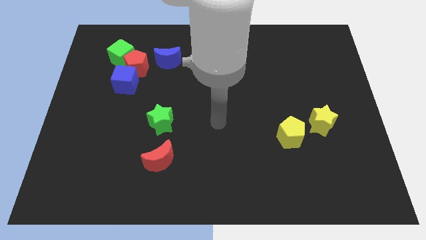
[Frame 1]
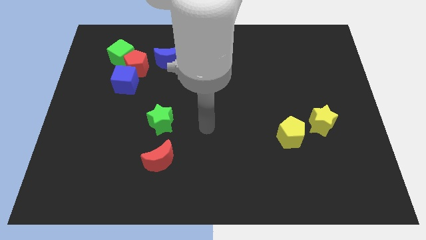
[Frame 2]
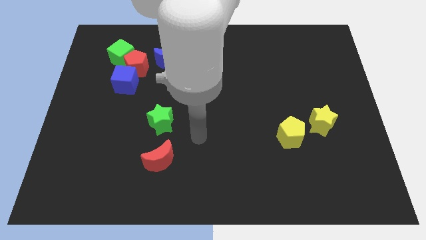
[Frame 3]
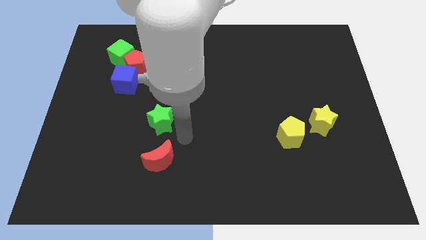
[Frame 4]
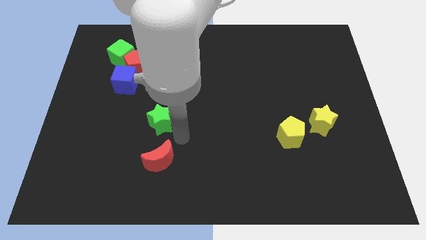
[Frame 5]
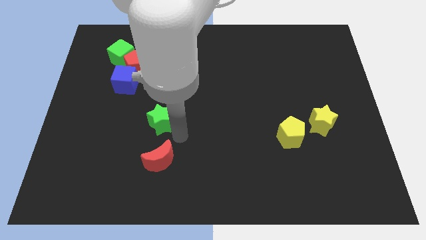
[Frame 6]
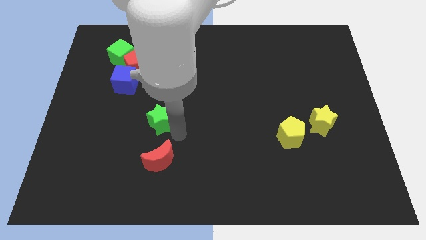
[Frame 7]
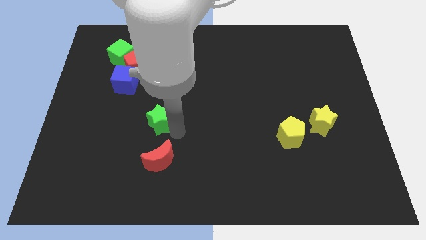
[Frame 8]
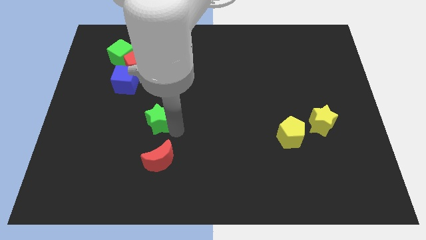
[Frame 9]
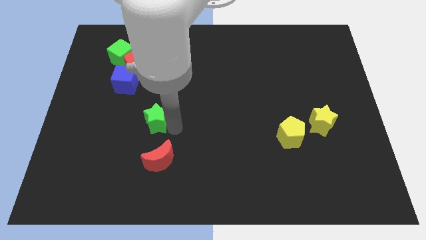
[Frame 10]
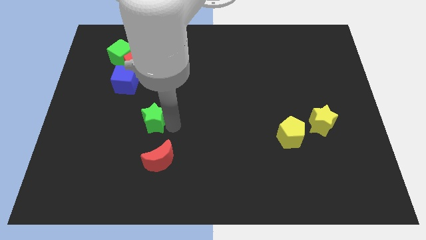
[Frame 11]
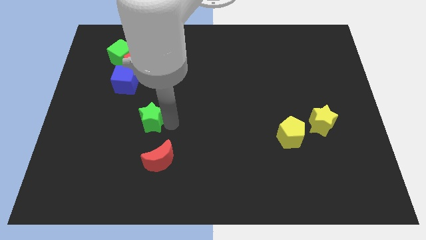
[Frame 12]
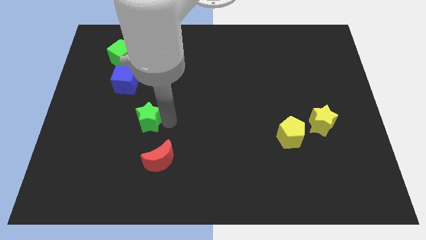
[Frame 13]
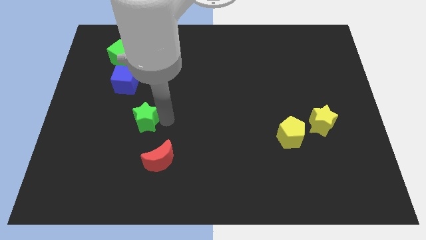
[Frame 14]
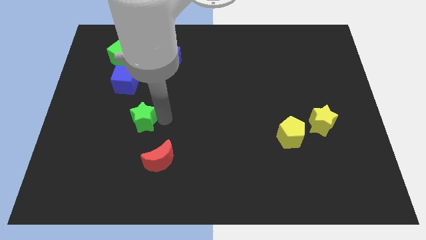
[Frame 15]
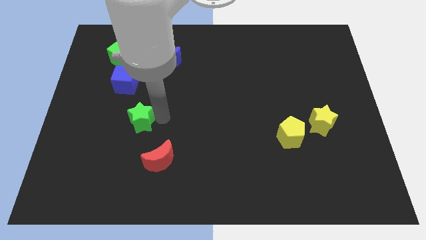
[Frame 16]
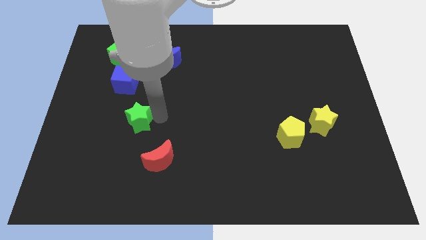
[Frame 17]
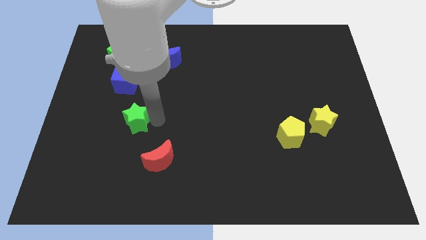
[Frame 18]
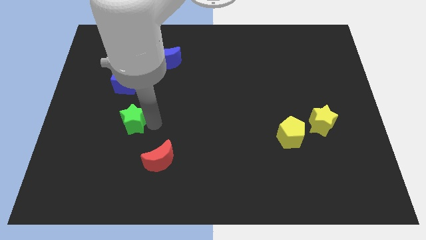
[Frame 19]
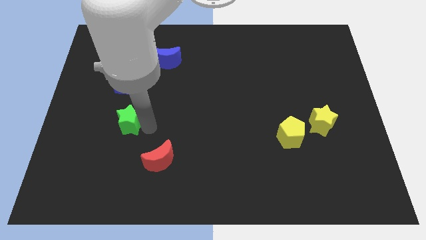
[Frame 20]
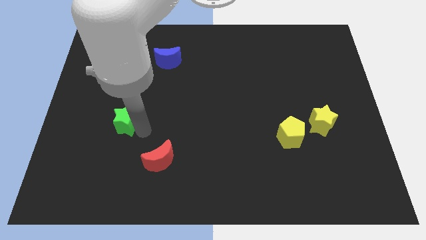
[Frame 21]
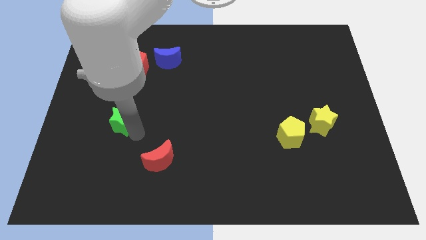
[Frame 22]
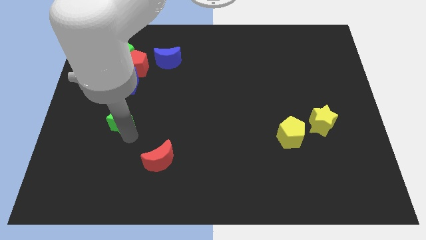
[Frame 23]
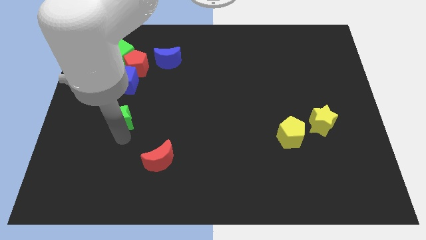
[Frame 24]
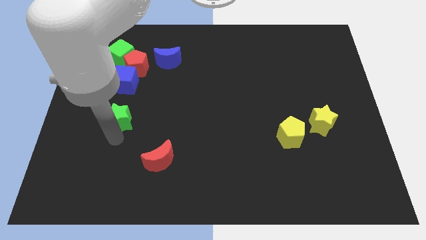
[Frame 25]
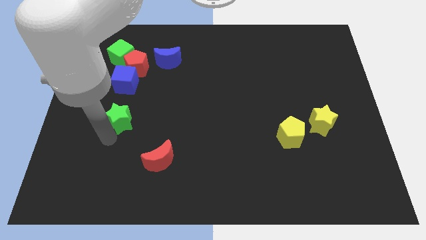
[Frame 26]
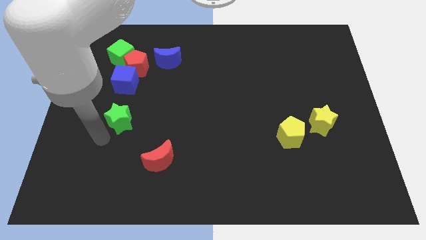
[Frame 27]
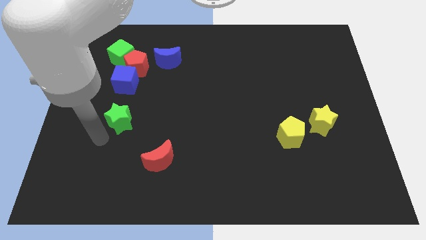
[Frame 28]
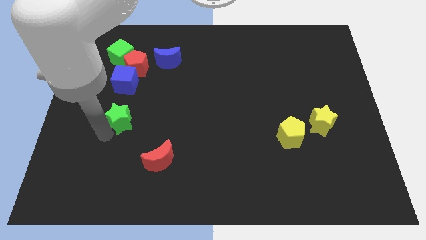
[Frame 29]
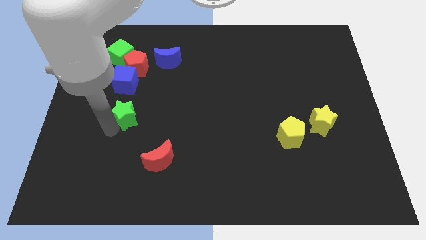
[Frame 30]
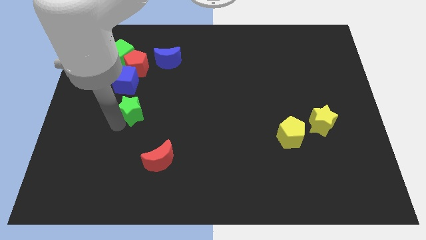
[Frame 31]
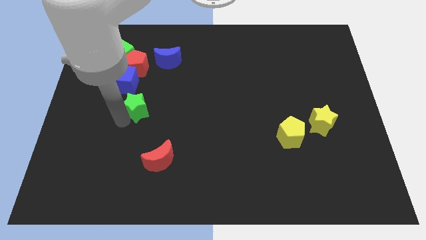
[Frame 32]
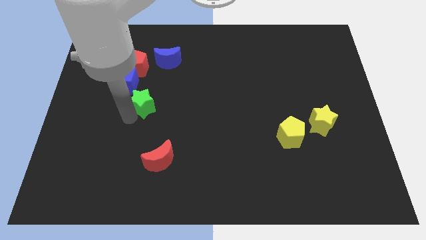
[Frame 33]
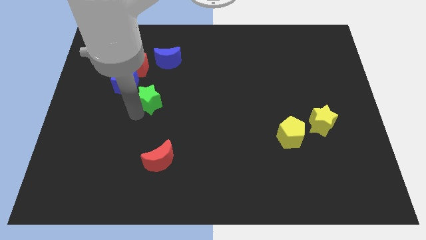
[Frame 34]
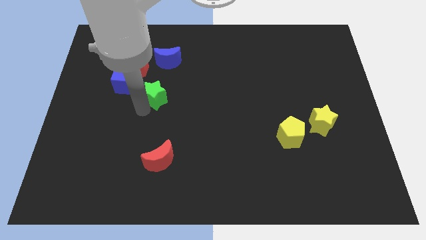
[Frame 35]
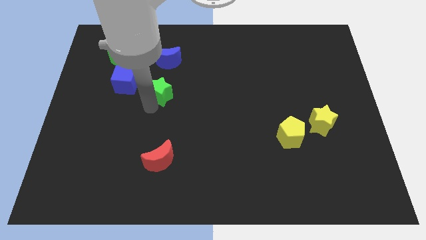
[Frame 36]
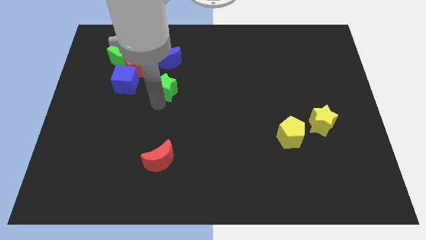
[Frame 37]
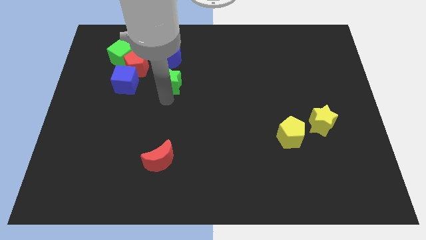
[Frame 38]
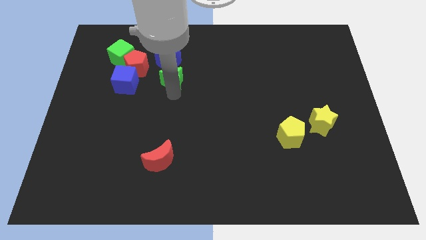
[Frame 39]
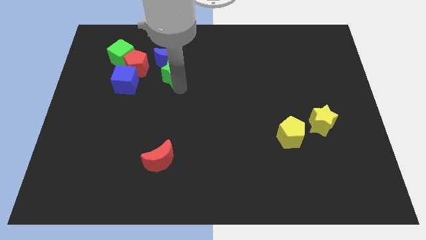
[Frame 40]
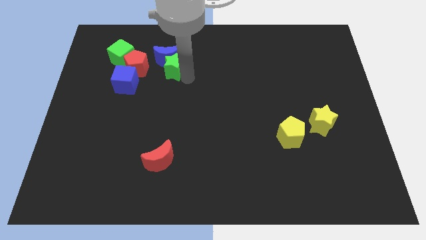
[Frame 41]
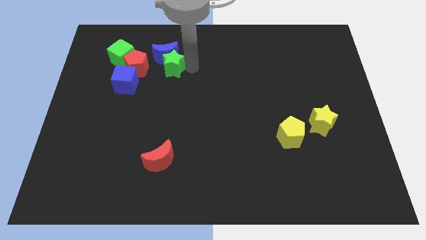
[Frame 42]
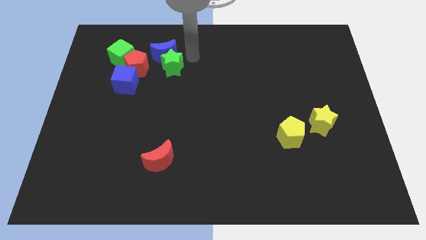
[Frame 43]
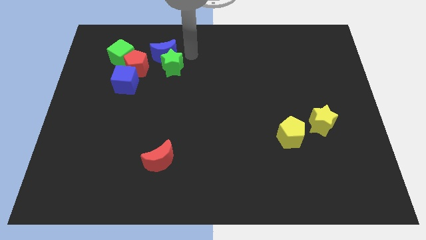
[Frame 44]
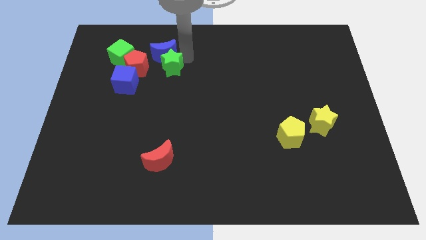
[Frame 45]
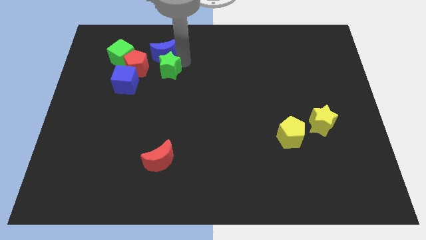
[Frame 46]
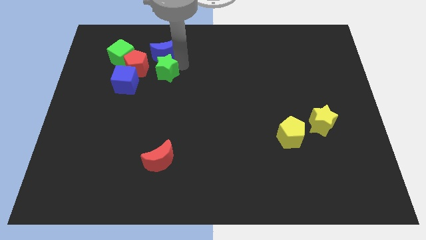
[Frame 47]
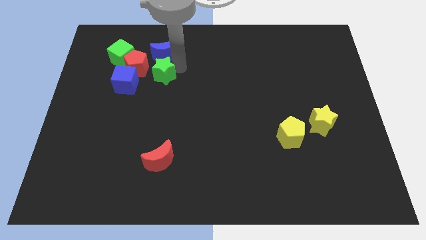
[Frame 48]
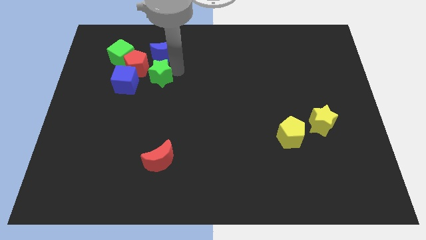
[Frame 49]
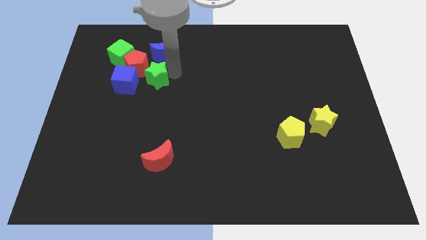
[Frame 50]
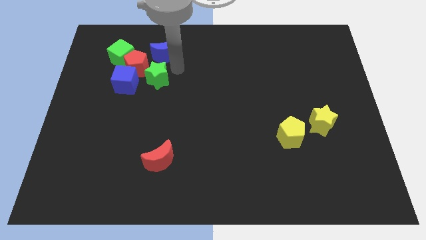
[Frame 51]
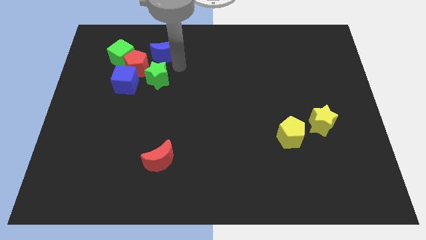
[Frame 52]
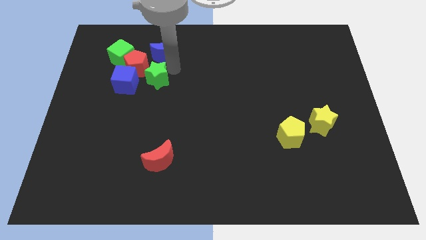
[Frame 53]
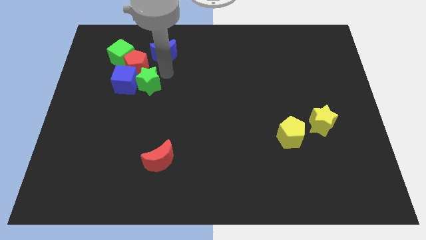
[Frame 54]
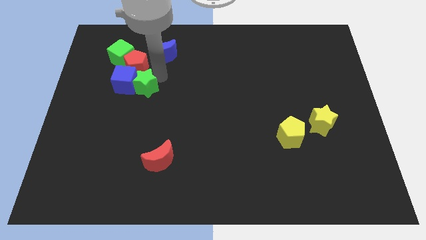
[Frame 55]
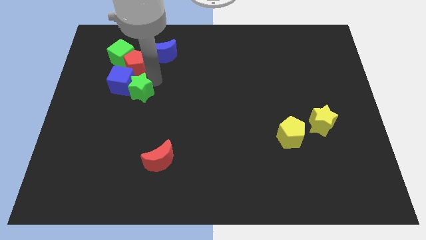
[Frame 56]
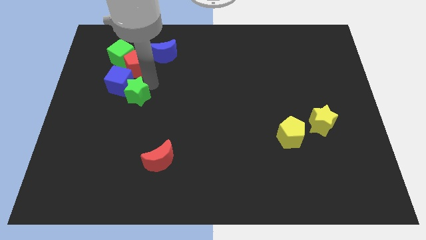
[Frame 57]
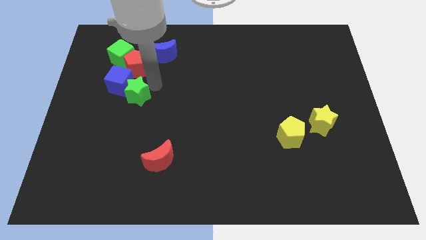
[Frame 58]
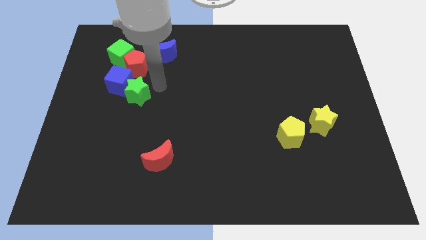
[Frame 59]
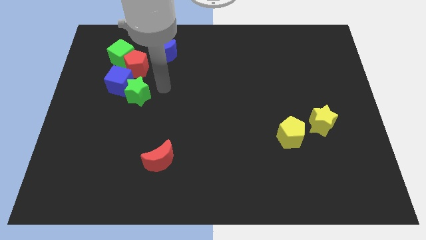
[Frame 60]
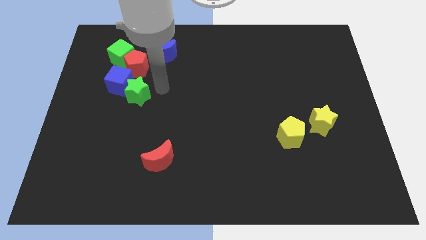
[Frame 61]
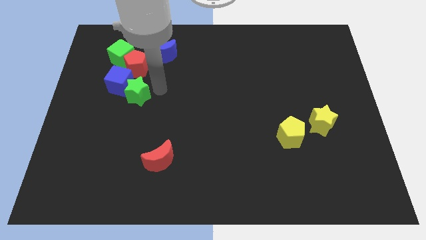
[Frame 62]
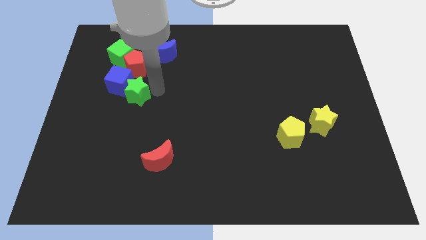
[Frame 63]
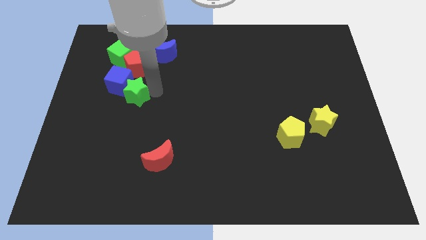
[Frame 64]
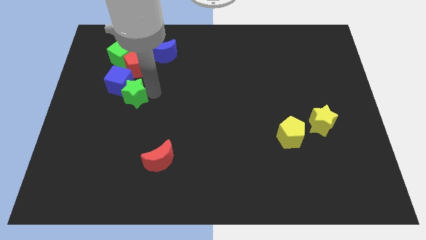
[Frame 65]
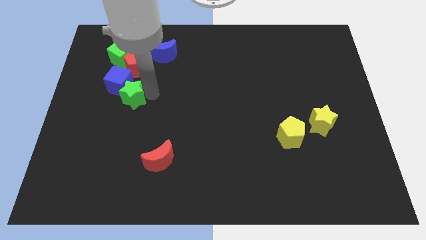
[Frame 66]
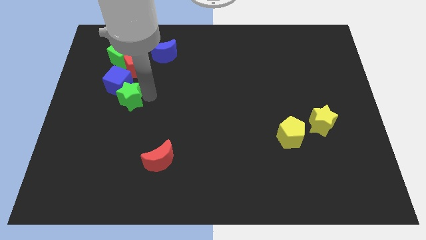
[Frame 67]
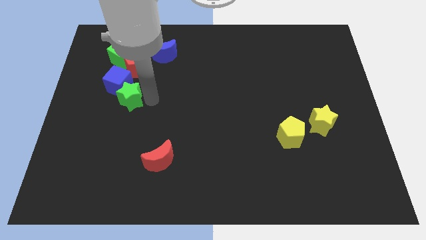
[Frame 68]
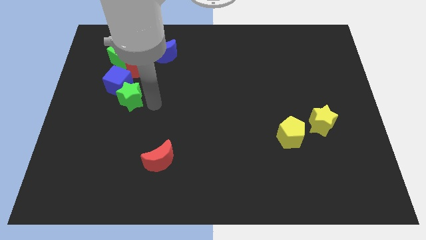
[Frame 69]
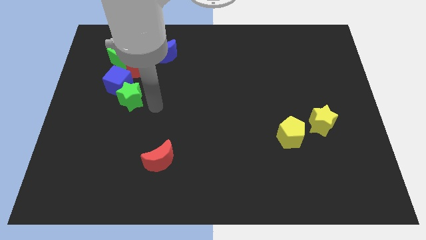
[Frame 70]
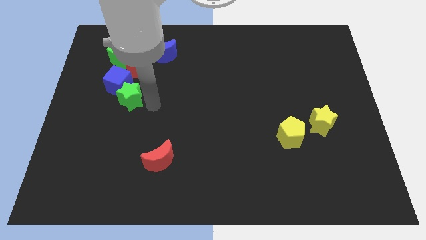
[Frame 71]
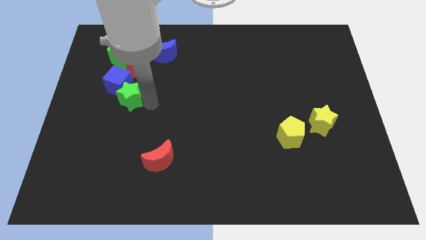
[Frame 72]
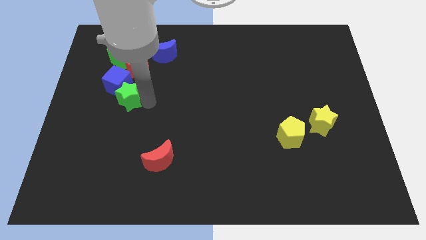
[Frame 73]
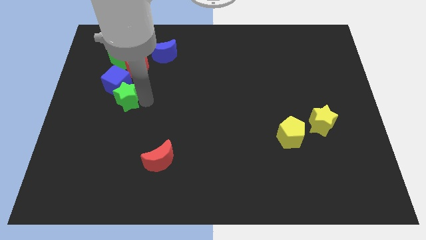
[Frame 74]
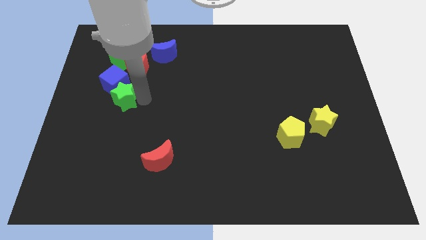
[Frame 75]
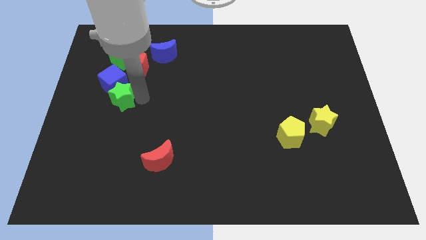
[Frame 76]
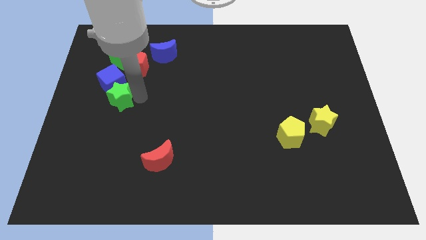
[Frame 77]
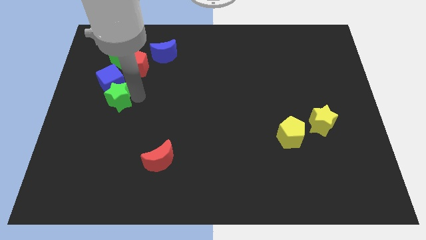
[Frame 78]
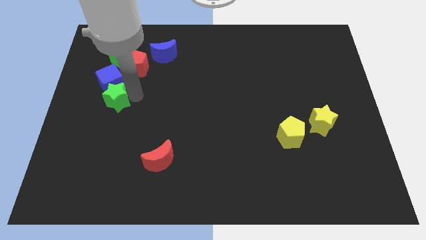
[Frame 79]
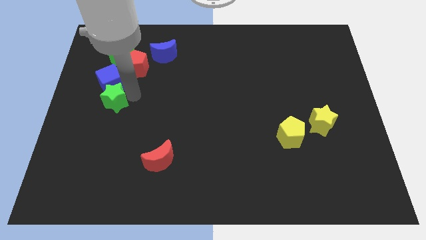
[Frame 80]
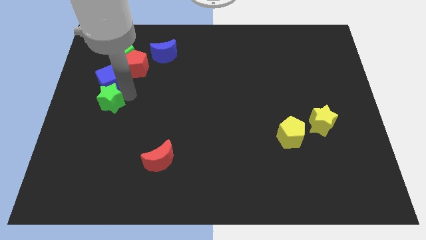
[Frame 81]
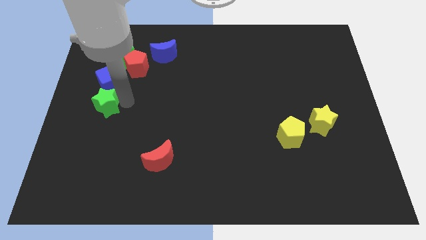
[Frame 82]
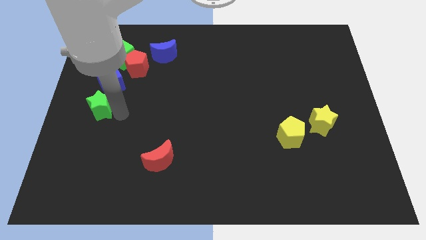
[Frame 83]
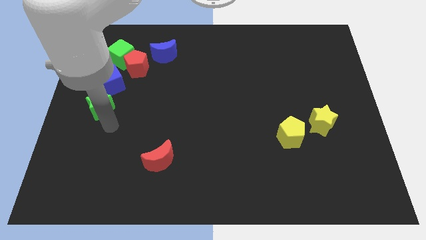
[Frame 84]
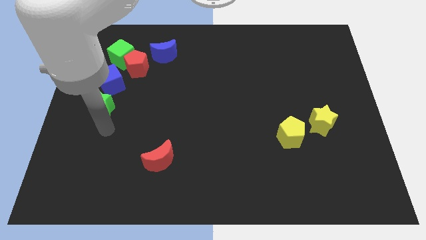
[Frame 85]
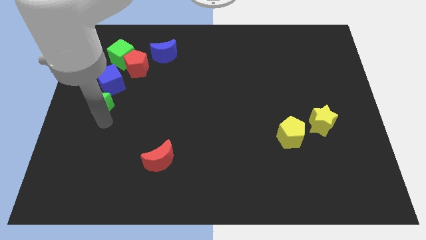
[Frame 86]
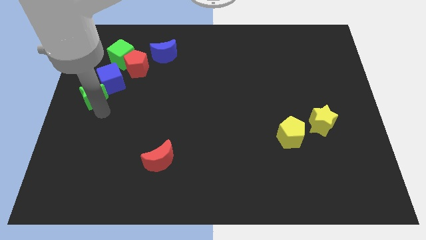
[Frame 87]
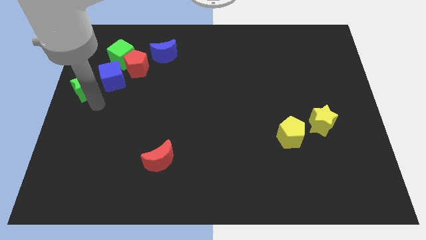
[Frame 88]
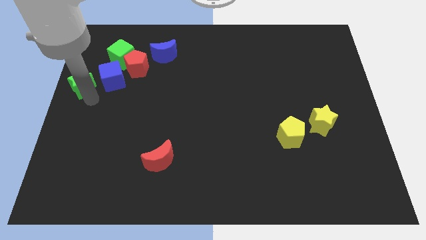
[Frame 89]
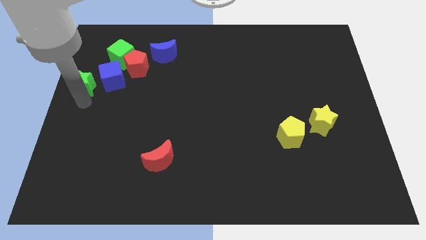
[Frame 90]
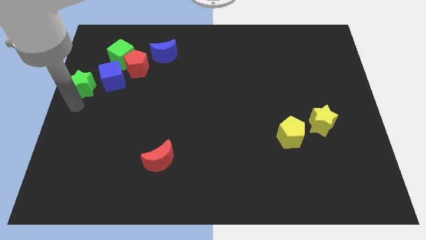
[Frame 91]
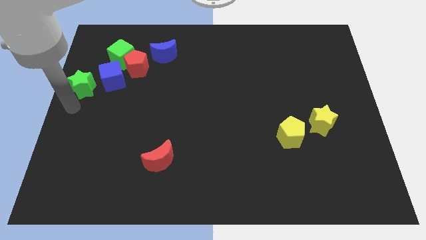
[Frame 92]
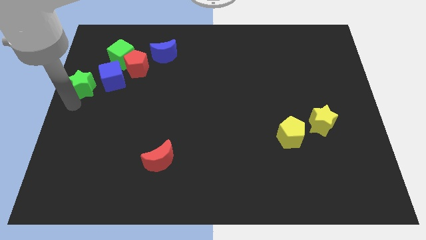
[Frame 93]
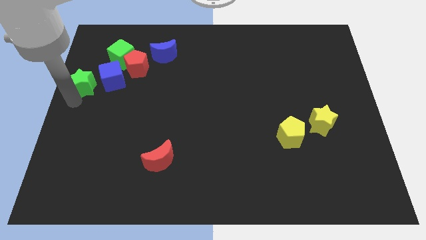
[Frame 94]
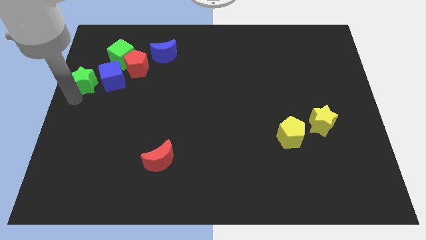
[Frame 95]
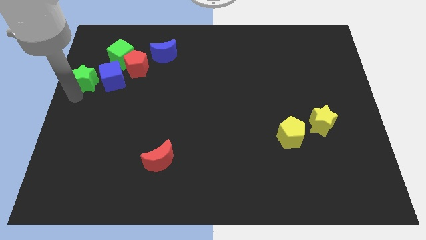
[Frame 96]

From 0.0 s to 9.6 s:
move the green star to the top left of the blue cube
